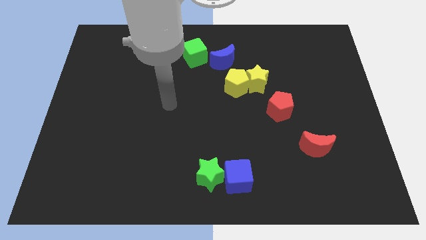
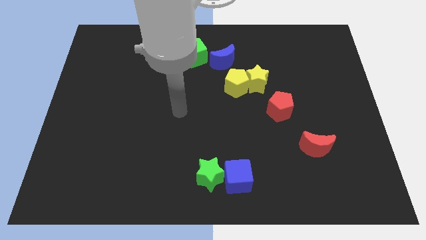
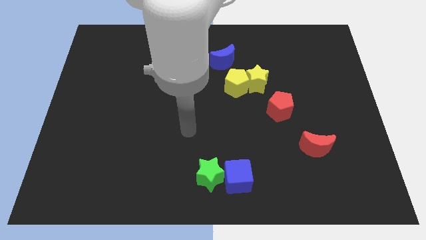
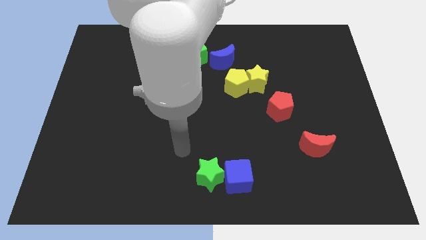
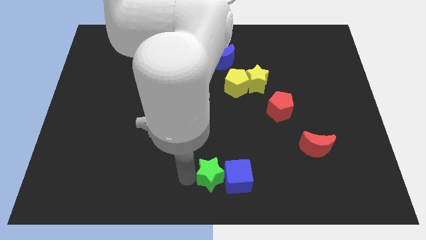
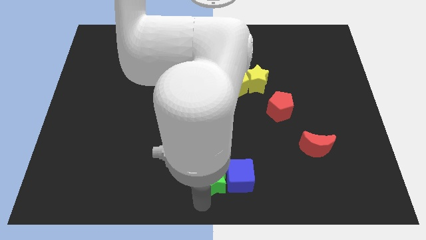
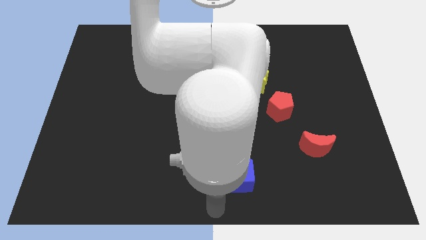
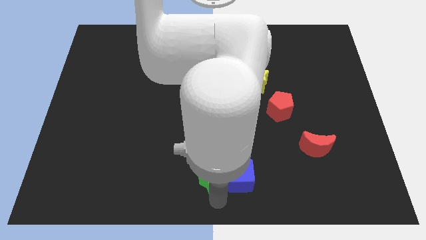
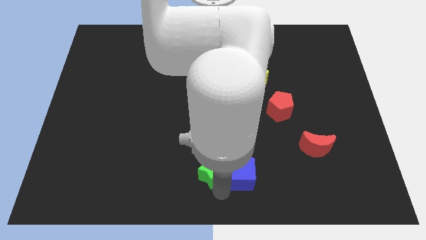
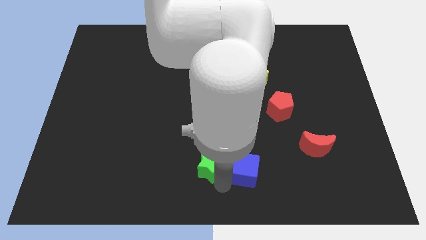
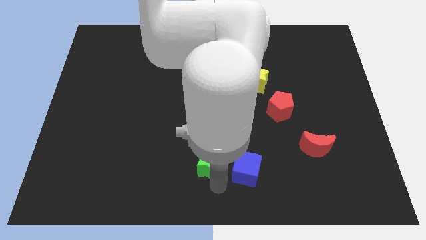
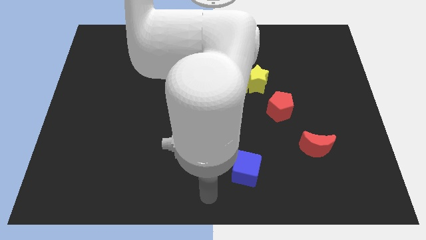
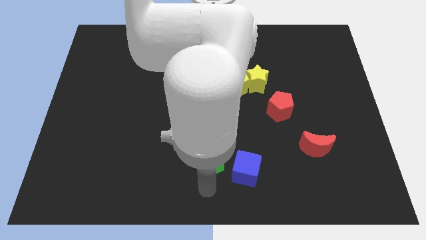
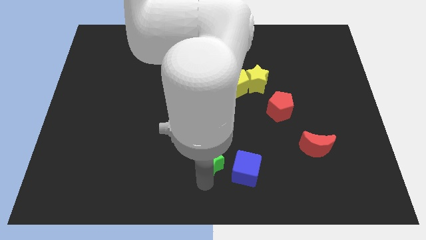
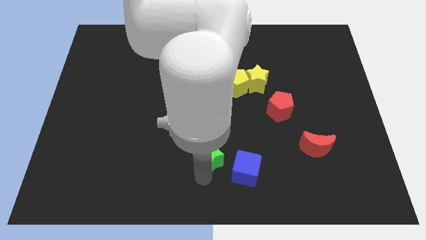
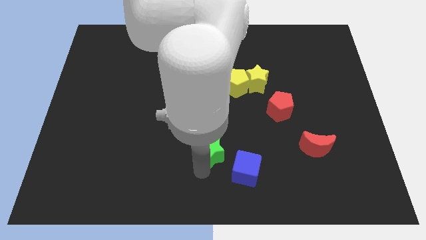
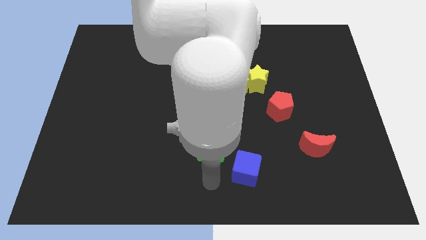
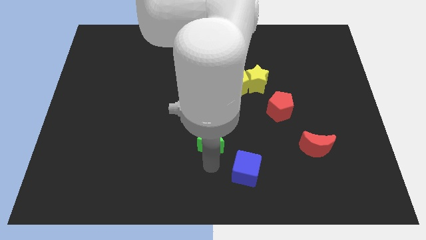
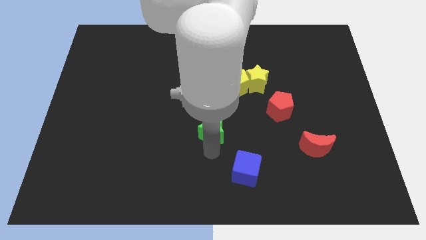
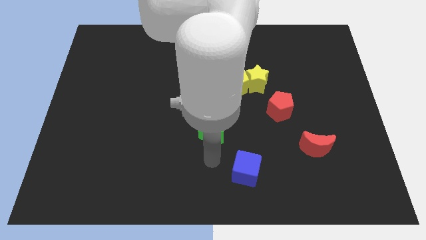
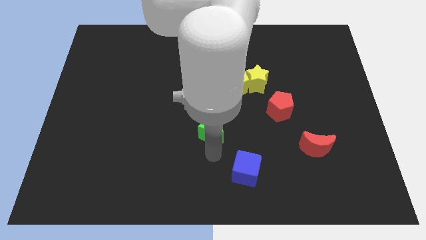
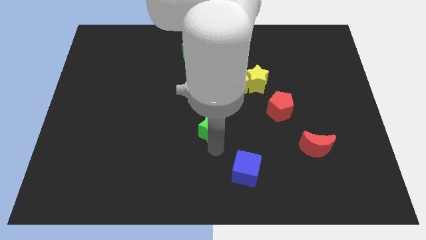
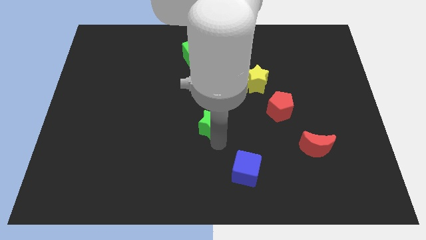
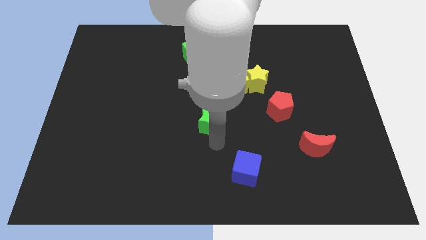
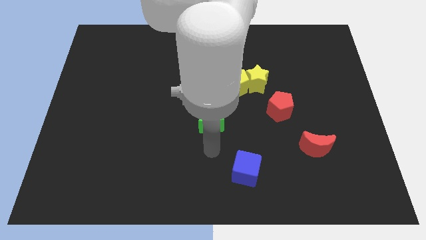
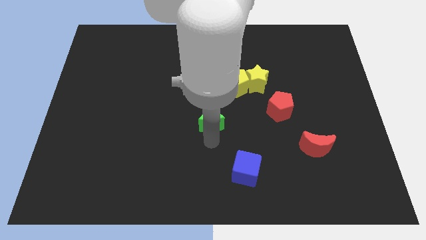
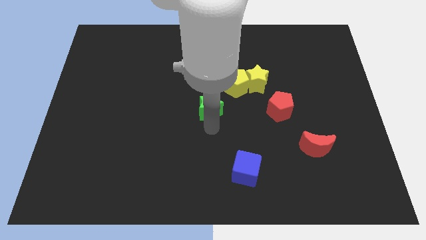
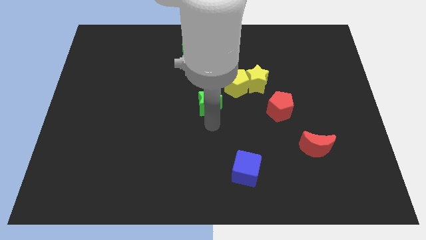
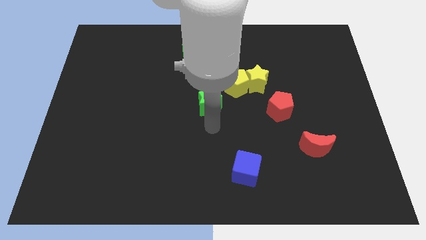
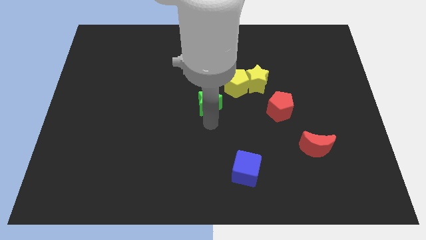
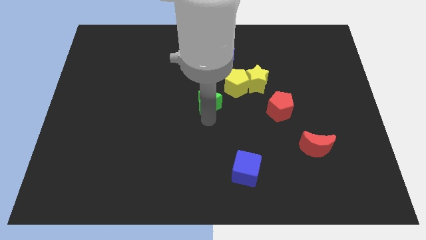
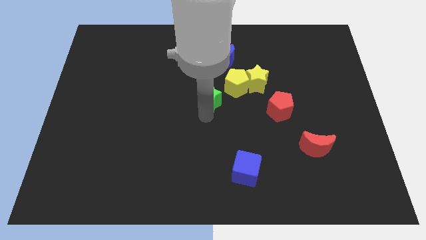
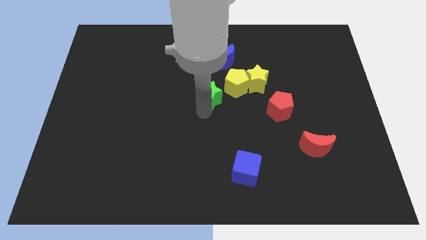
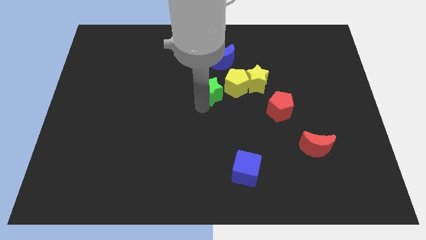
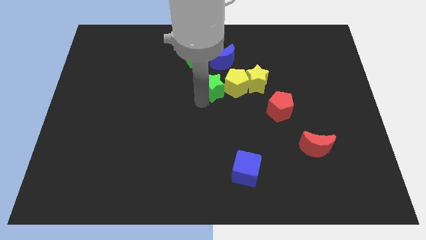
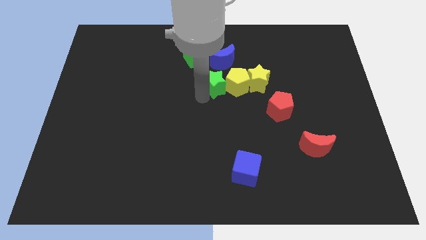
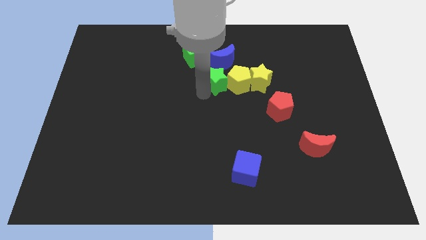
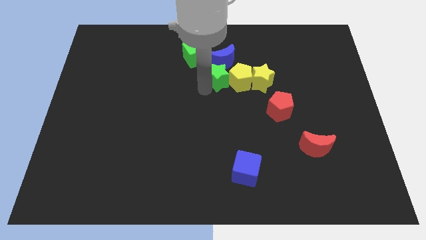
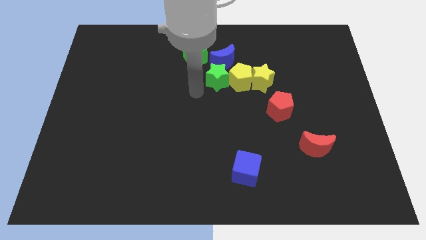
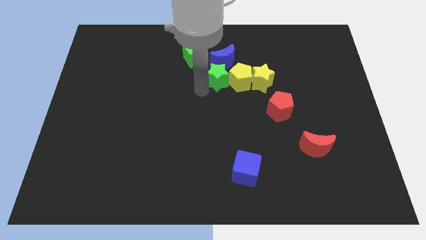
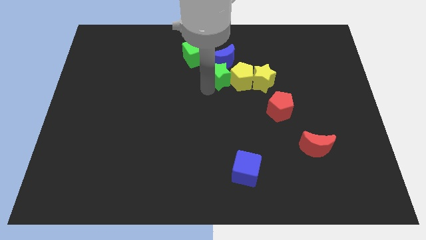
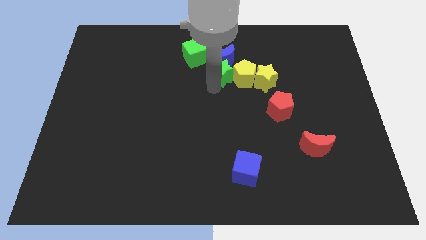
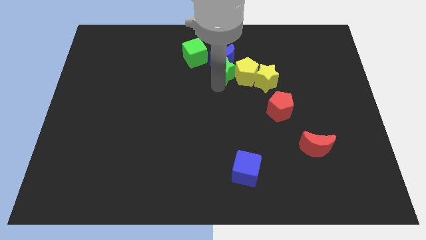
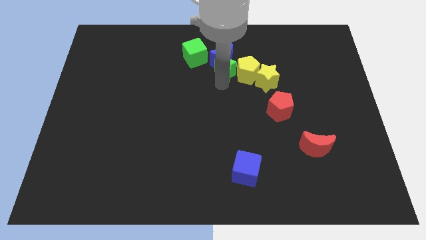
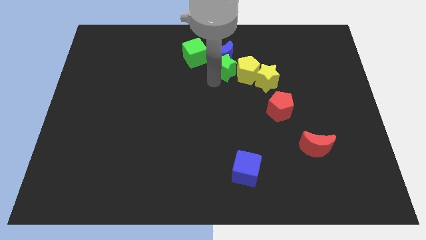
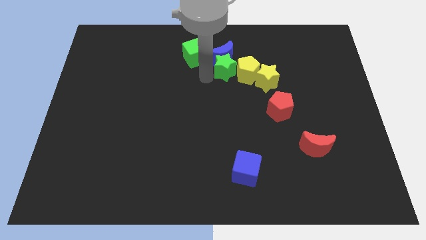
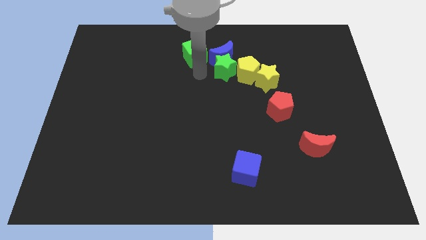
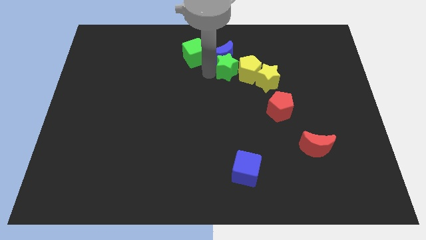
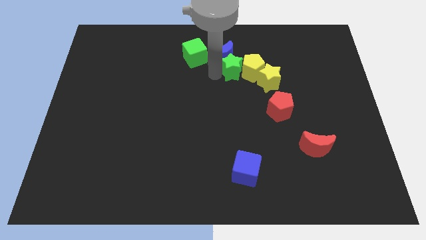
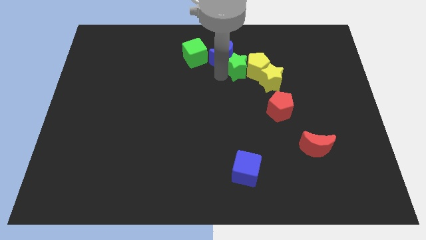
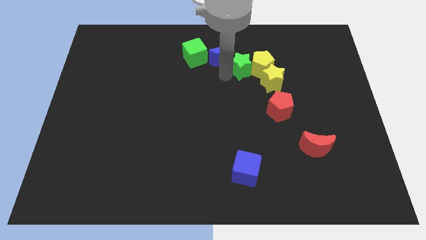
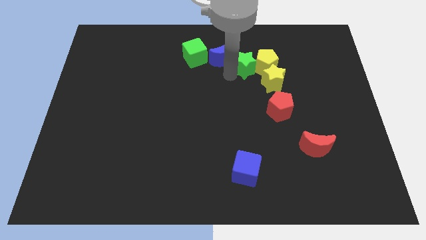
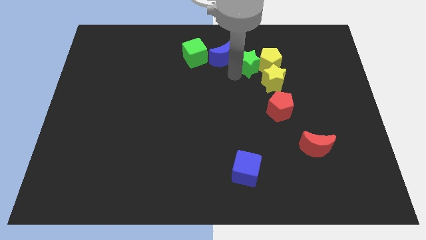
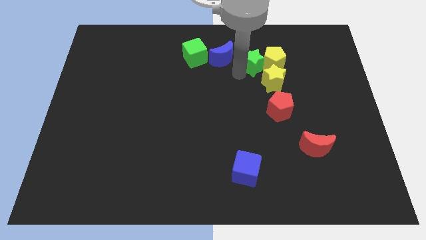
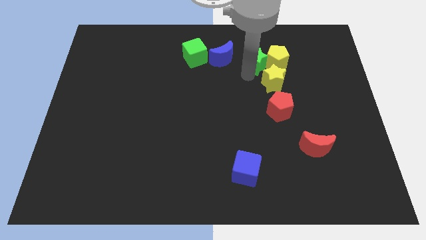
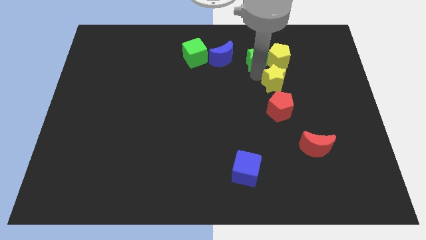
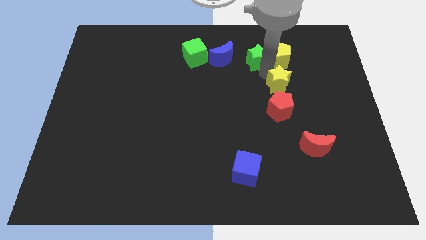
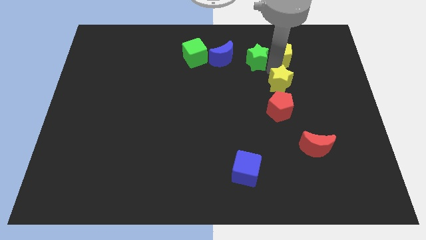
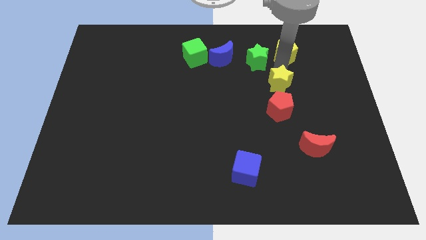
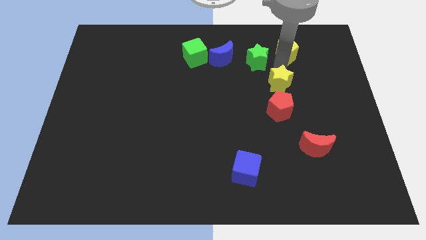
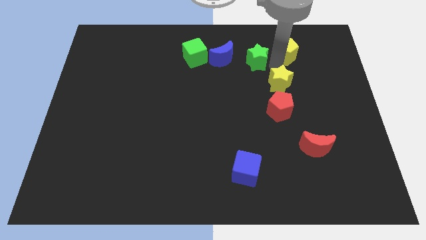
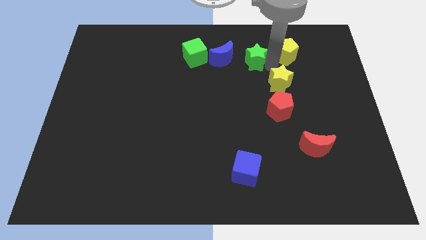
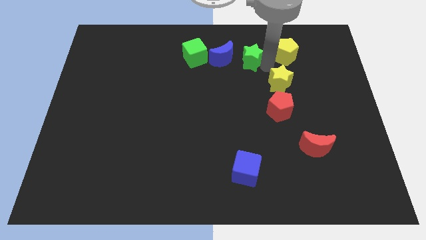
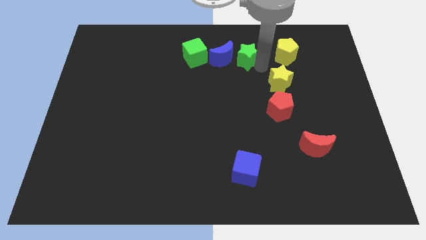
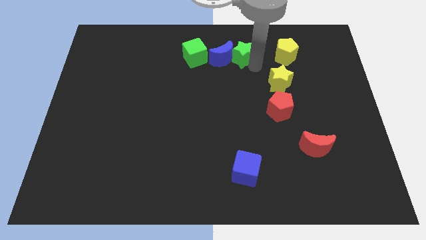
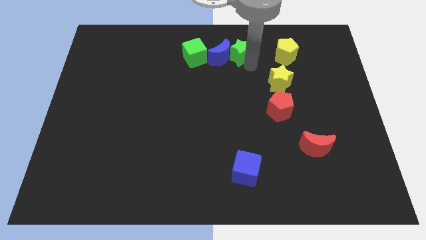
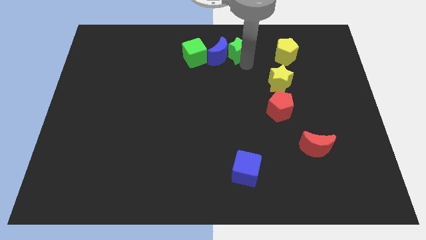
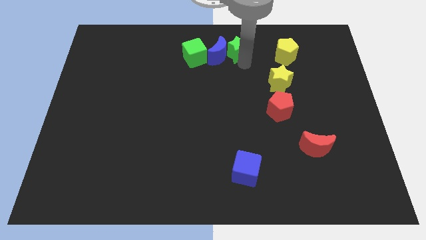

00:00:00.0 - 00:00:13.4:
put the green star to the towards your base
